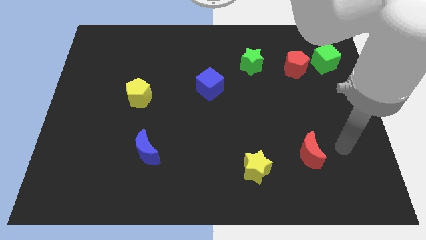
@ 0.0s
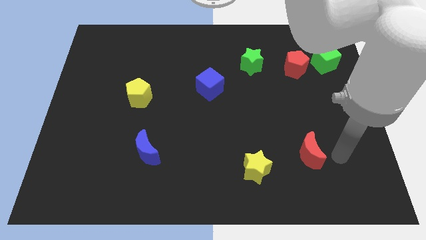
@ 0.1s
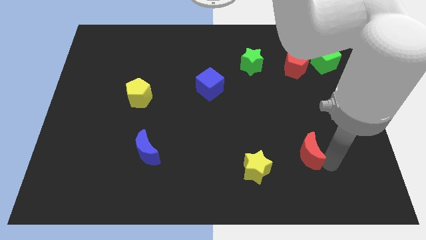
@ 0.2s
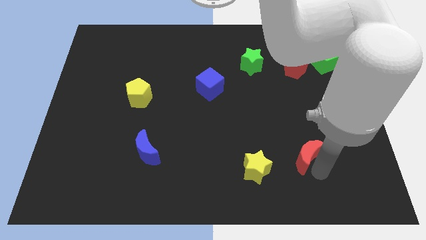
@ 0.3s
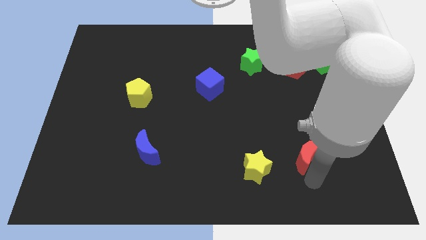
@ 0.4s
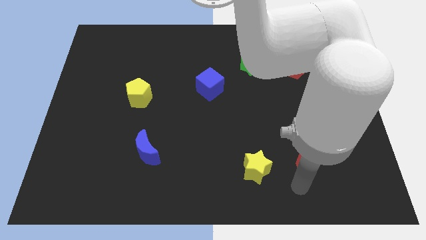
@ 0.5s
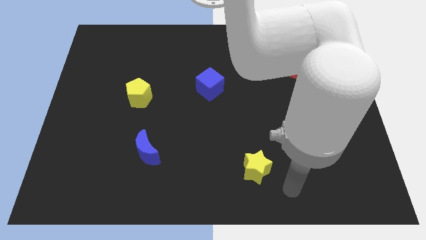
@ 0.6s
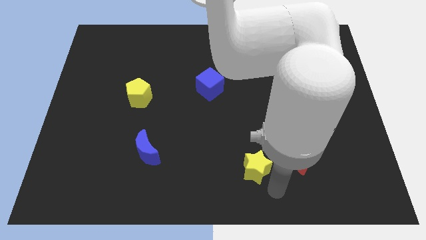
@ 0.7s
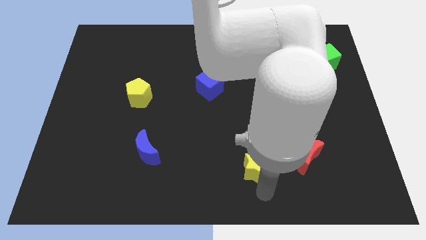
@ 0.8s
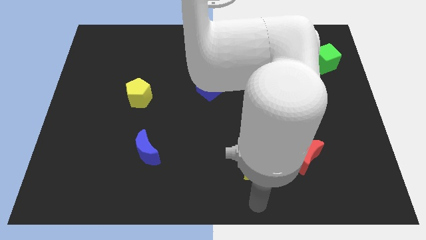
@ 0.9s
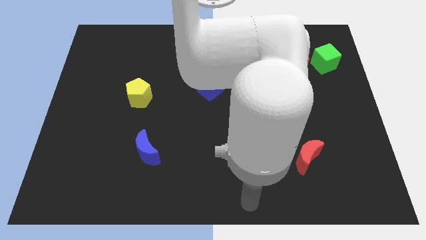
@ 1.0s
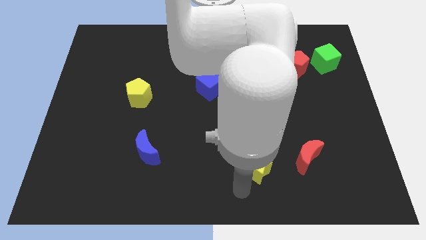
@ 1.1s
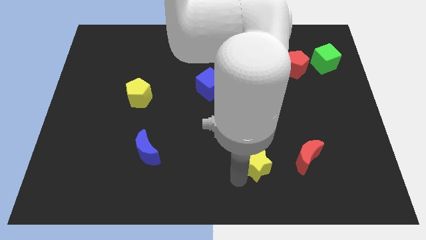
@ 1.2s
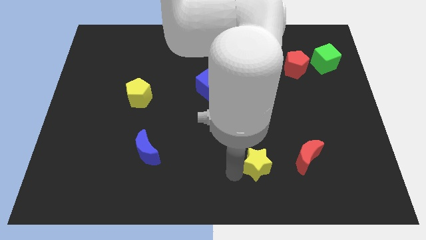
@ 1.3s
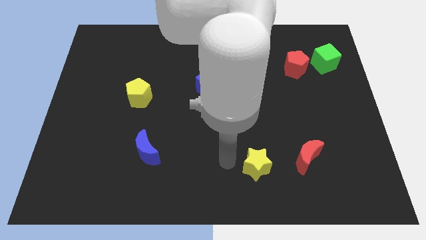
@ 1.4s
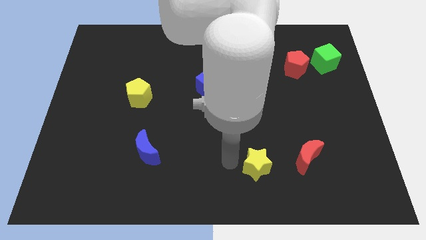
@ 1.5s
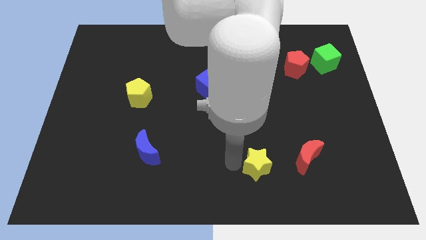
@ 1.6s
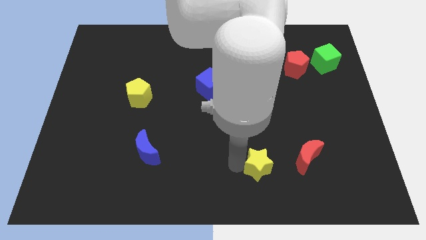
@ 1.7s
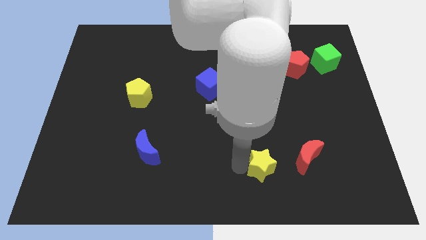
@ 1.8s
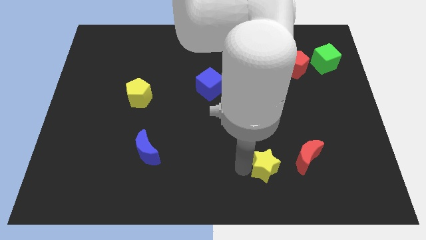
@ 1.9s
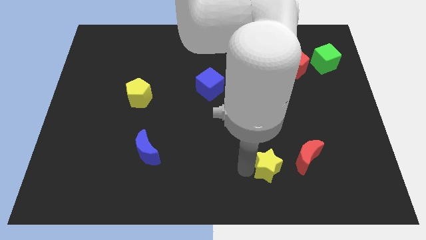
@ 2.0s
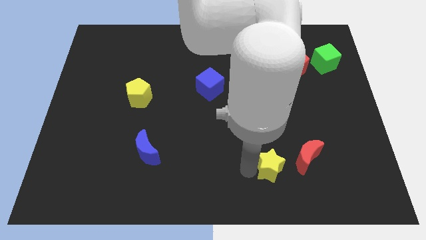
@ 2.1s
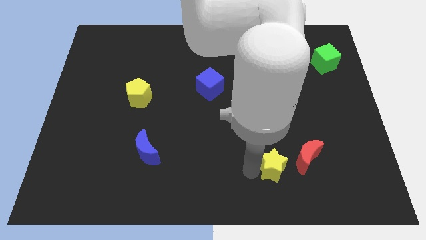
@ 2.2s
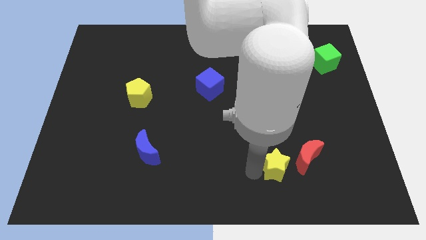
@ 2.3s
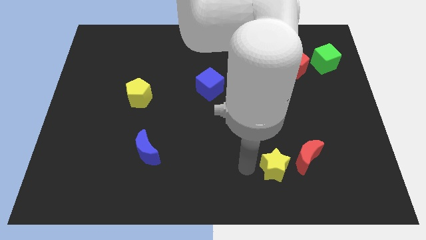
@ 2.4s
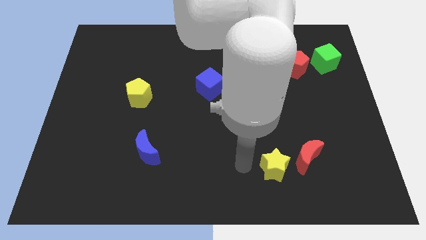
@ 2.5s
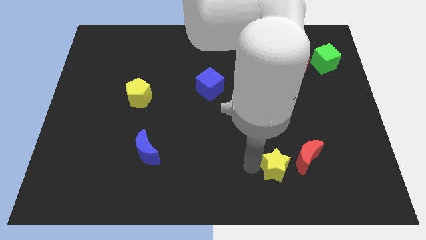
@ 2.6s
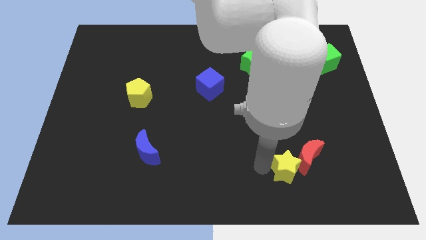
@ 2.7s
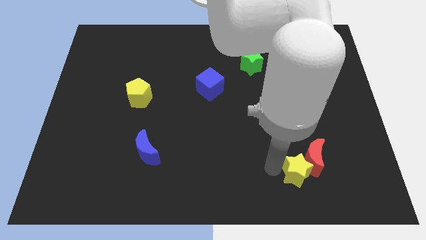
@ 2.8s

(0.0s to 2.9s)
push the yellow star right a little

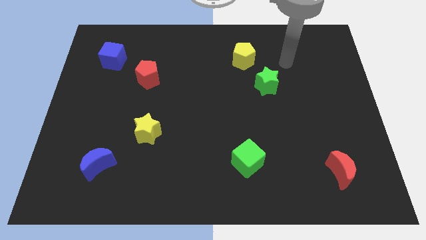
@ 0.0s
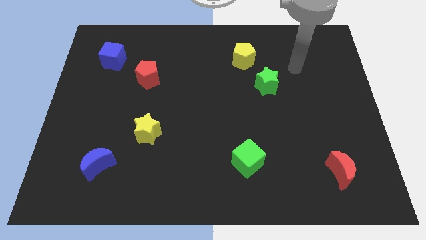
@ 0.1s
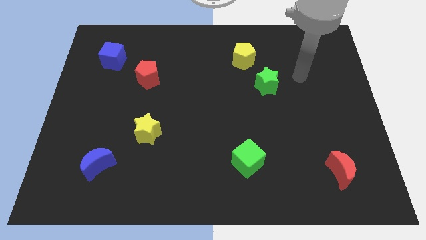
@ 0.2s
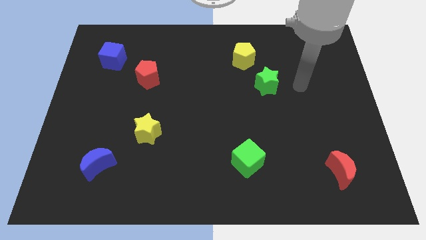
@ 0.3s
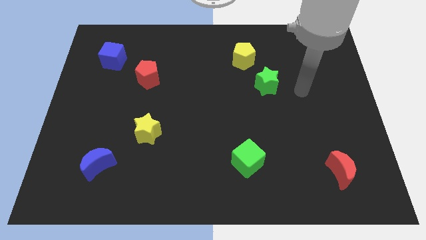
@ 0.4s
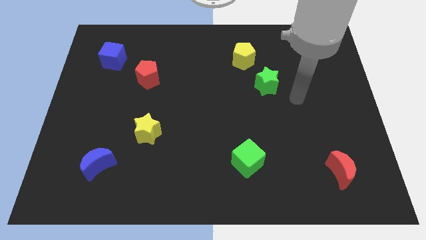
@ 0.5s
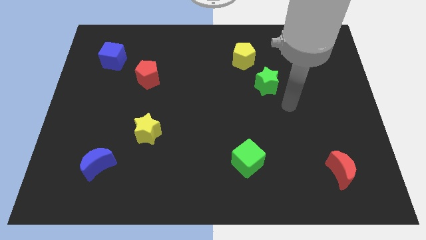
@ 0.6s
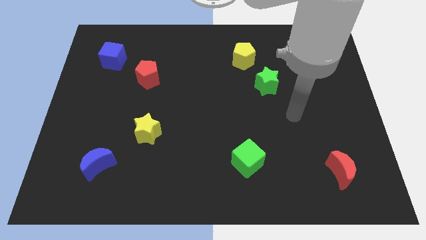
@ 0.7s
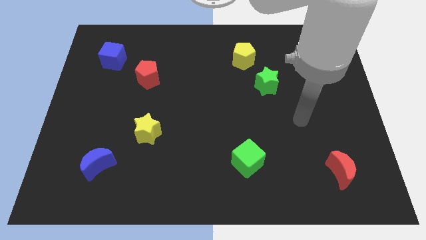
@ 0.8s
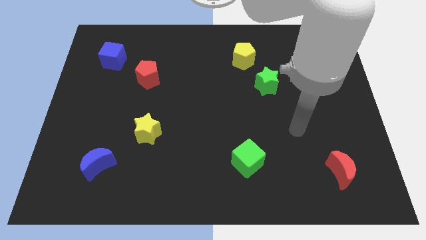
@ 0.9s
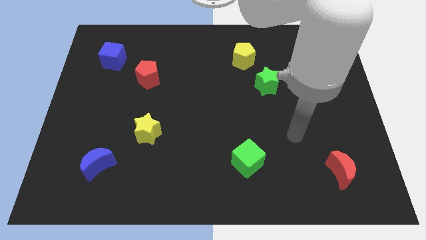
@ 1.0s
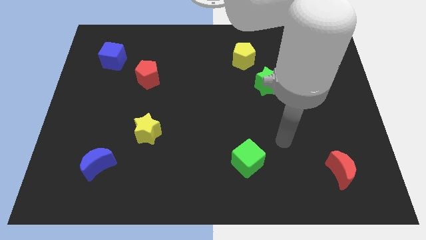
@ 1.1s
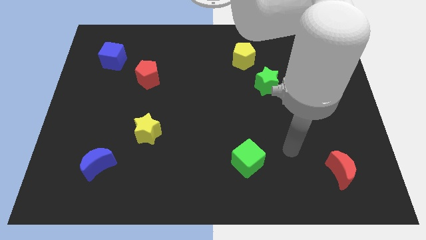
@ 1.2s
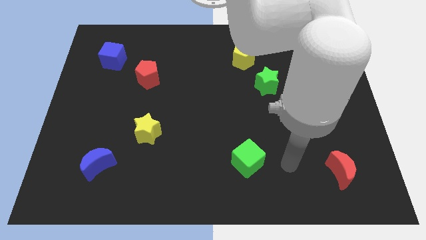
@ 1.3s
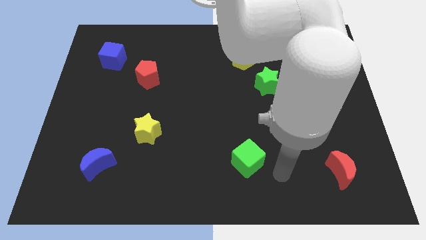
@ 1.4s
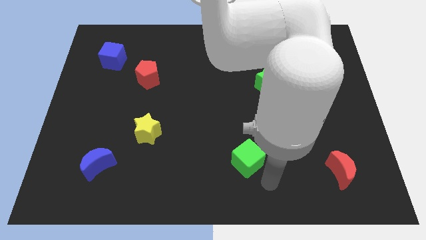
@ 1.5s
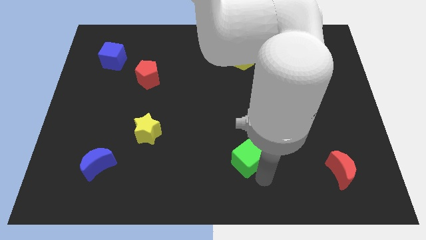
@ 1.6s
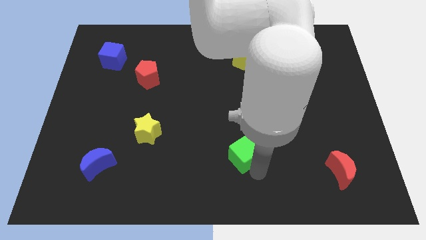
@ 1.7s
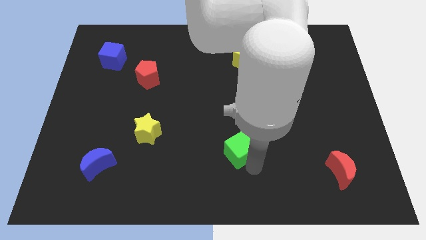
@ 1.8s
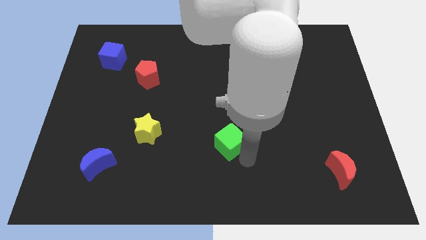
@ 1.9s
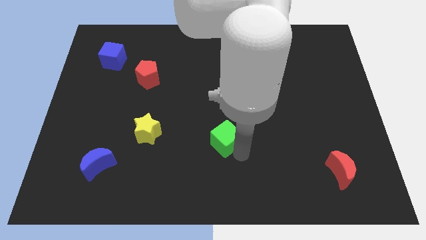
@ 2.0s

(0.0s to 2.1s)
slightly slide the green cube upwards and left

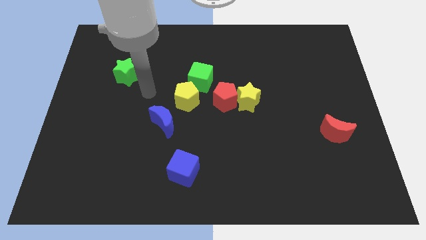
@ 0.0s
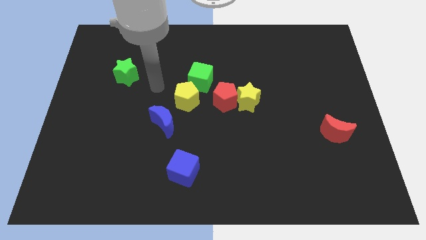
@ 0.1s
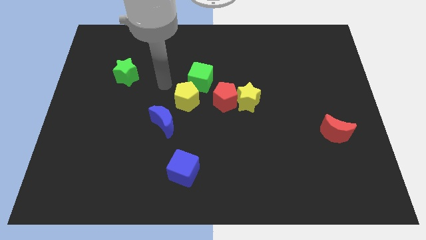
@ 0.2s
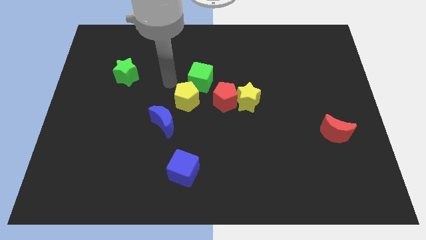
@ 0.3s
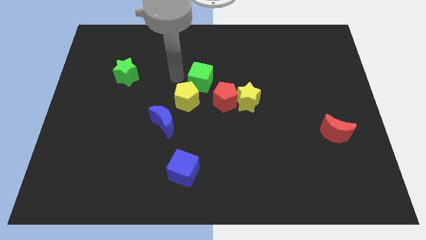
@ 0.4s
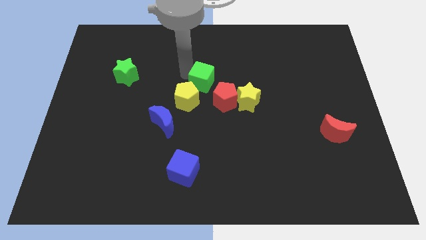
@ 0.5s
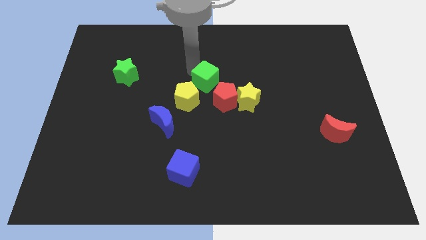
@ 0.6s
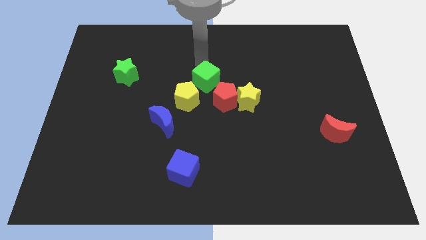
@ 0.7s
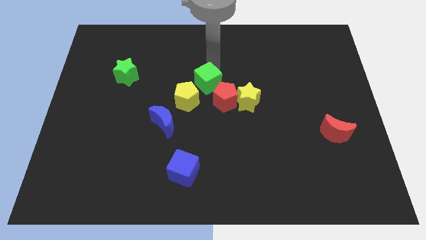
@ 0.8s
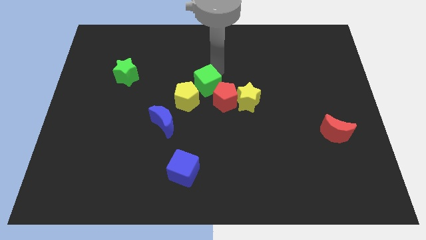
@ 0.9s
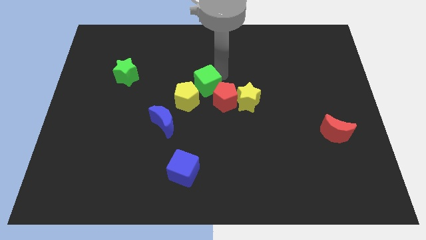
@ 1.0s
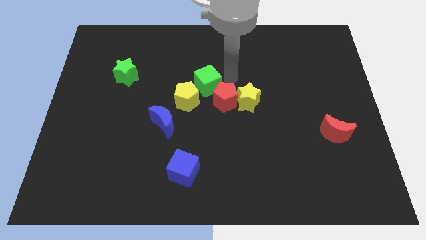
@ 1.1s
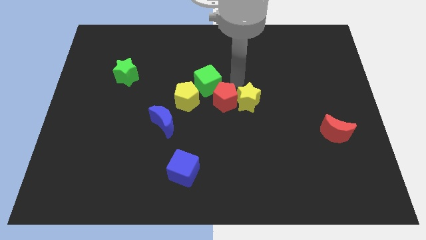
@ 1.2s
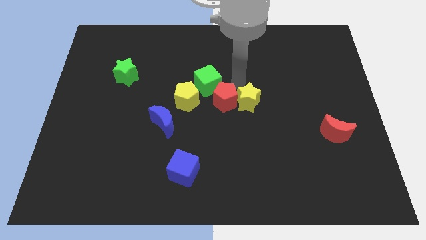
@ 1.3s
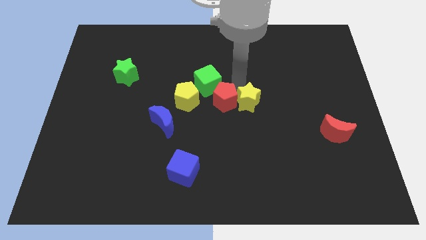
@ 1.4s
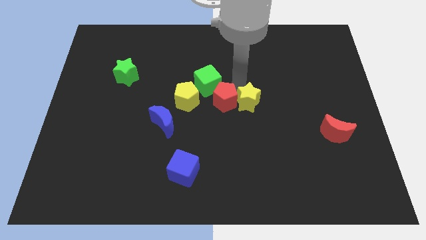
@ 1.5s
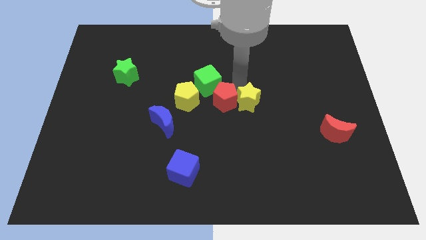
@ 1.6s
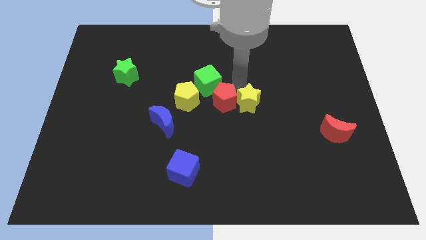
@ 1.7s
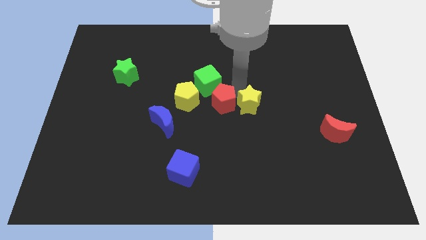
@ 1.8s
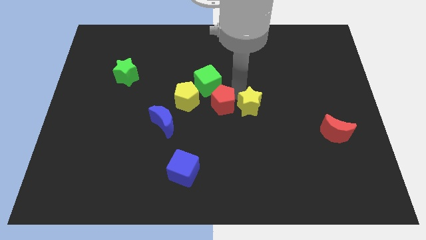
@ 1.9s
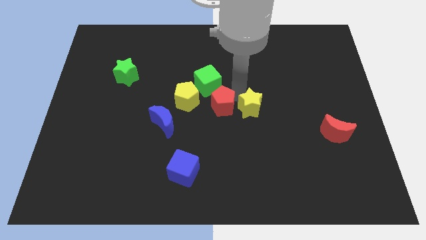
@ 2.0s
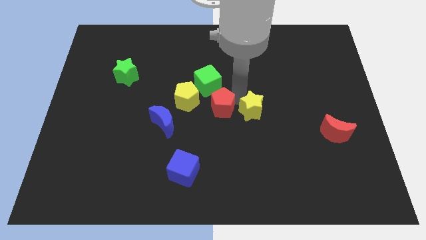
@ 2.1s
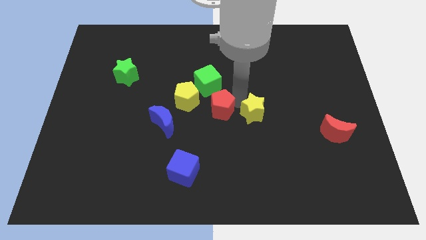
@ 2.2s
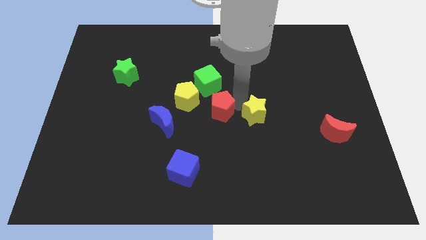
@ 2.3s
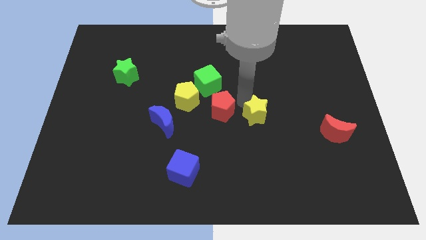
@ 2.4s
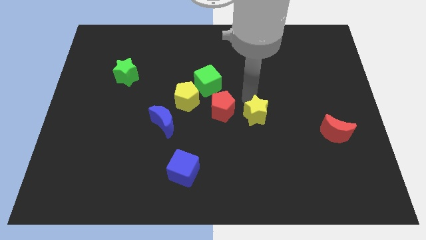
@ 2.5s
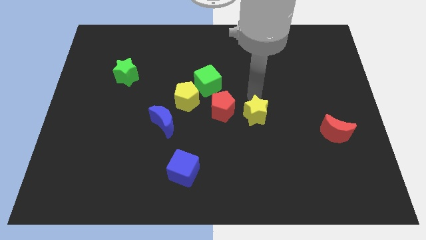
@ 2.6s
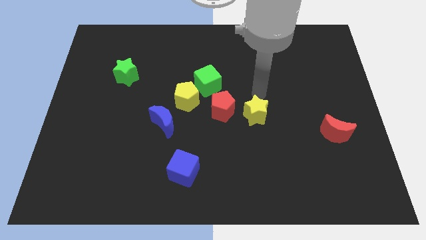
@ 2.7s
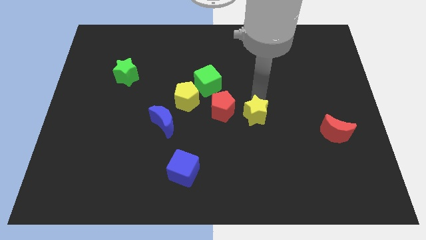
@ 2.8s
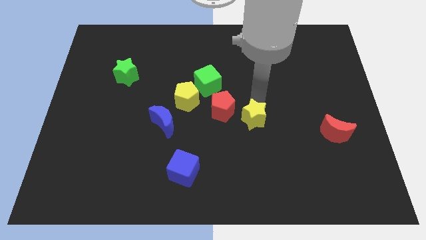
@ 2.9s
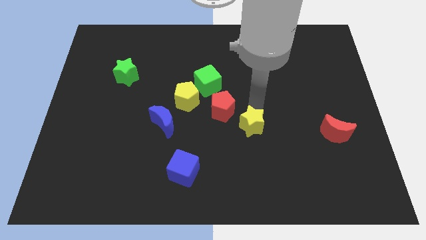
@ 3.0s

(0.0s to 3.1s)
push the yellow star a bit down

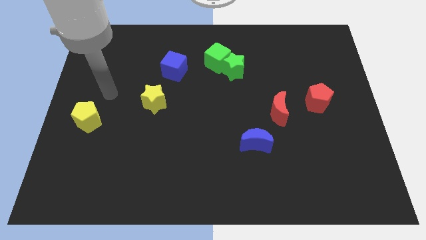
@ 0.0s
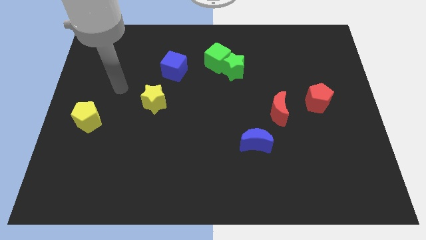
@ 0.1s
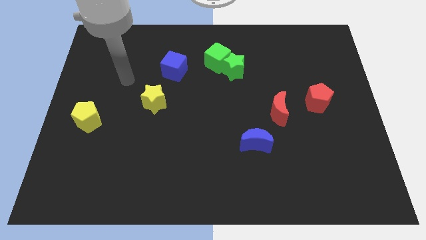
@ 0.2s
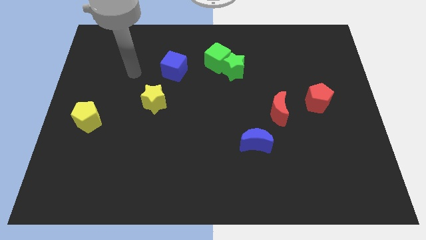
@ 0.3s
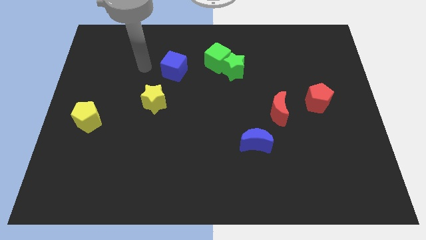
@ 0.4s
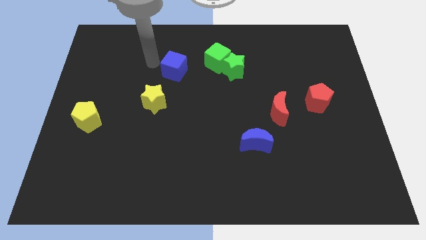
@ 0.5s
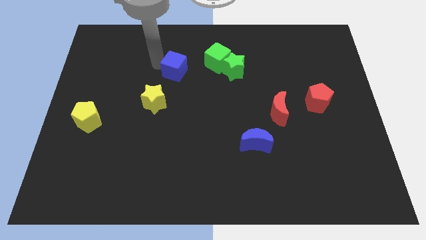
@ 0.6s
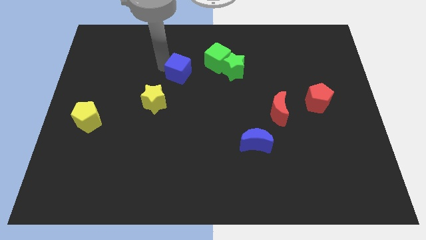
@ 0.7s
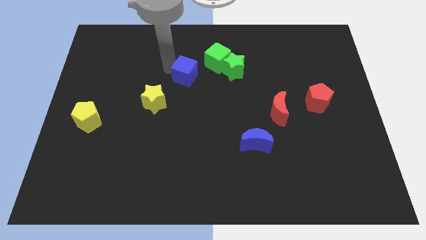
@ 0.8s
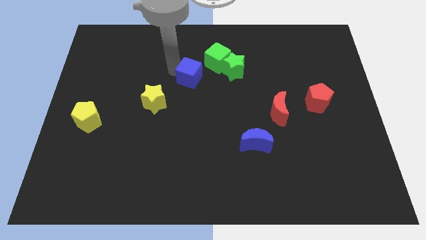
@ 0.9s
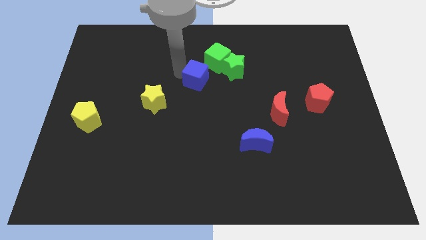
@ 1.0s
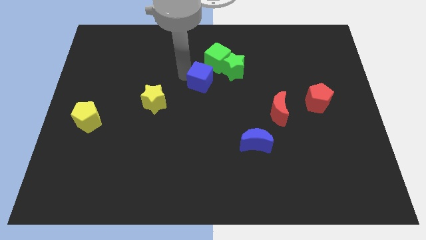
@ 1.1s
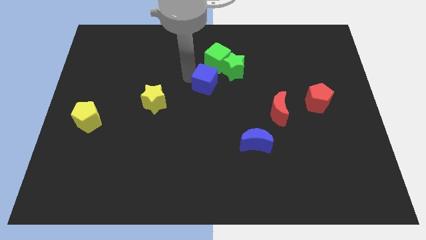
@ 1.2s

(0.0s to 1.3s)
move the blue cube to the right a little
